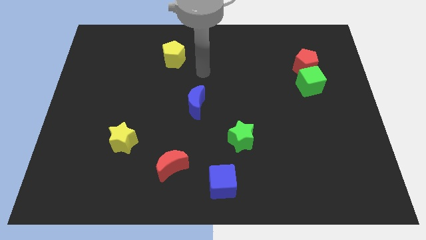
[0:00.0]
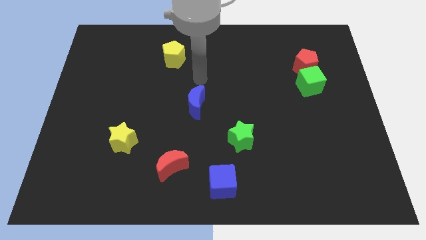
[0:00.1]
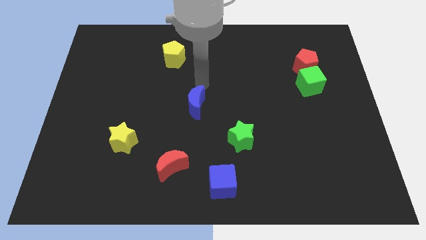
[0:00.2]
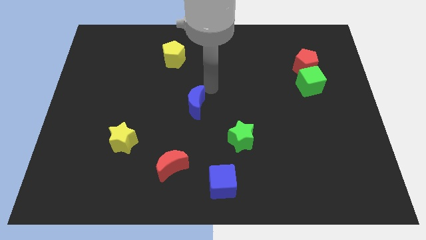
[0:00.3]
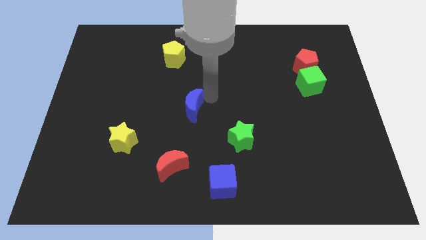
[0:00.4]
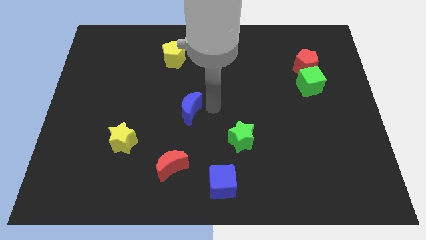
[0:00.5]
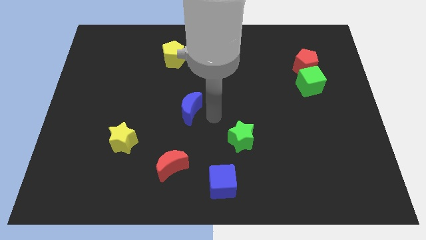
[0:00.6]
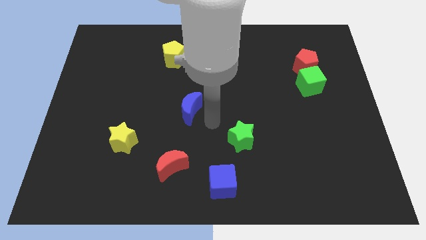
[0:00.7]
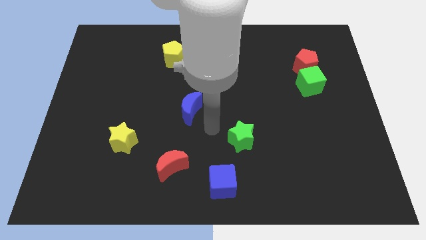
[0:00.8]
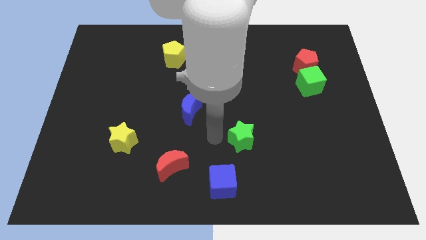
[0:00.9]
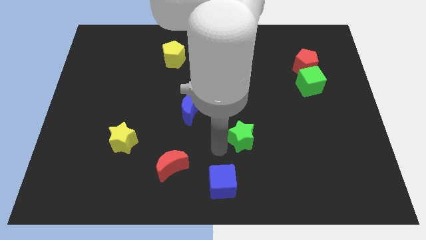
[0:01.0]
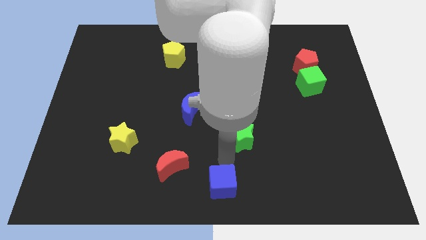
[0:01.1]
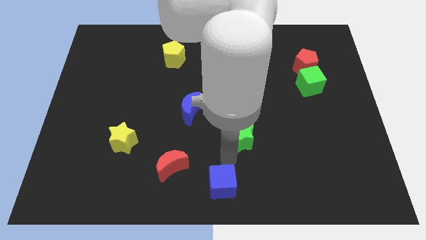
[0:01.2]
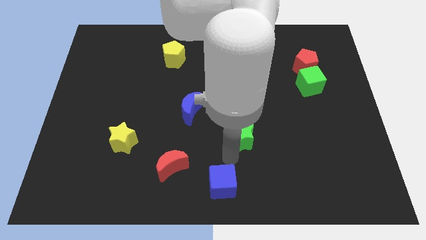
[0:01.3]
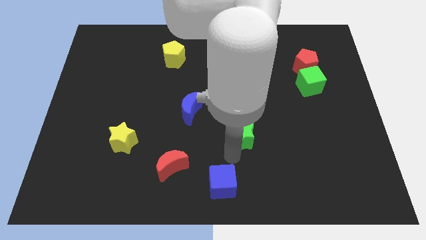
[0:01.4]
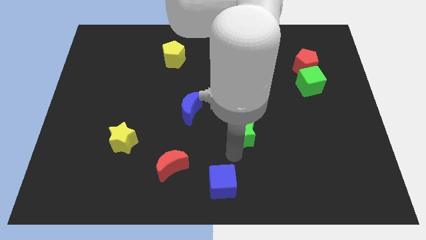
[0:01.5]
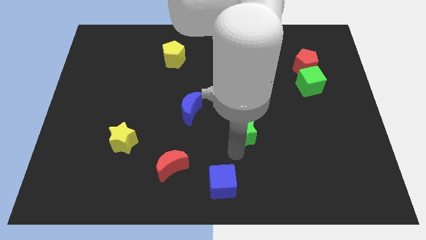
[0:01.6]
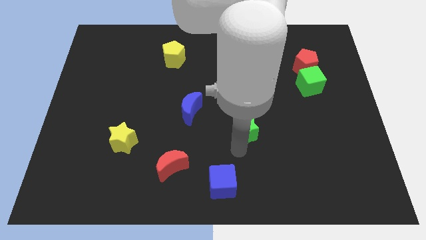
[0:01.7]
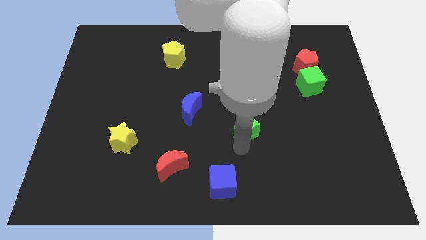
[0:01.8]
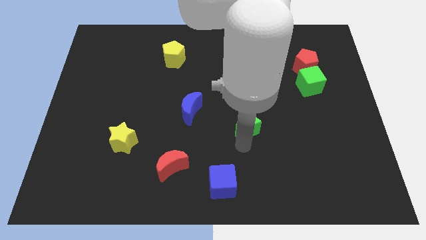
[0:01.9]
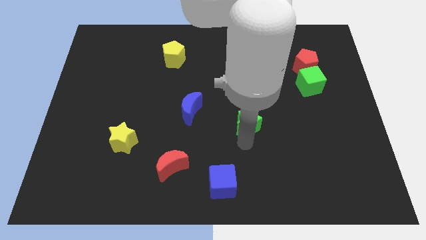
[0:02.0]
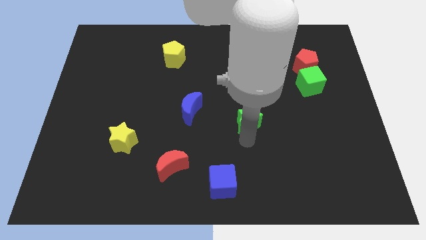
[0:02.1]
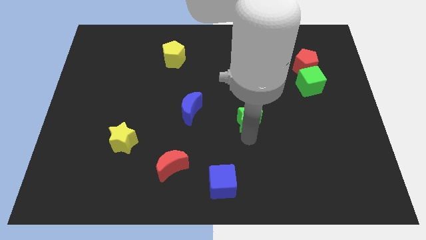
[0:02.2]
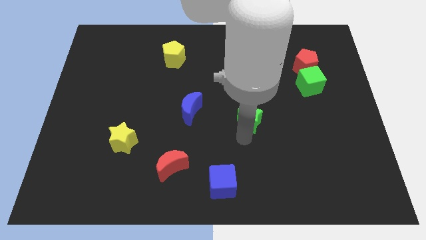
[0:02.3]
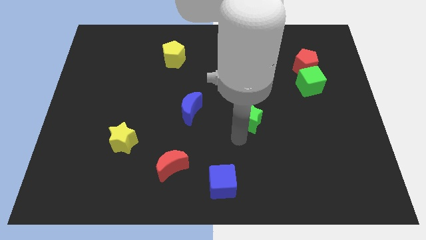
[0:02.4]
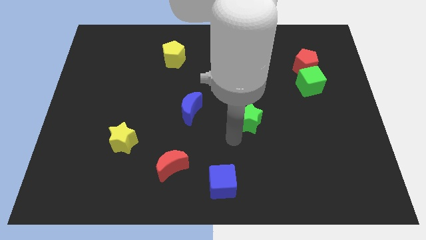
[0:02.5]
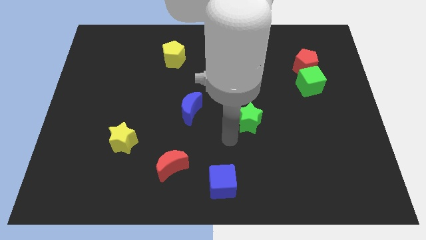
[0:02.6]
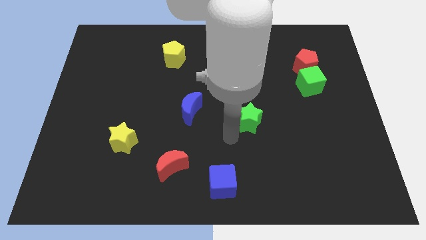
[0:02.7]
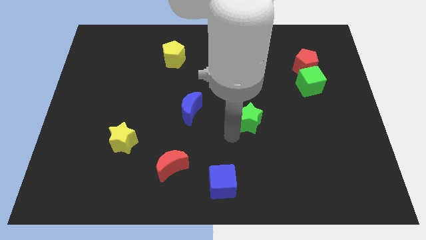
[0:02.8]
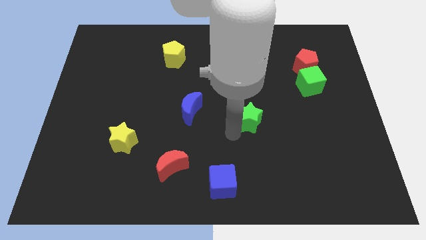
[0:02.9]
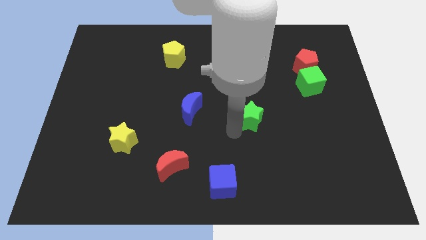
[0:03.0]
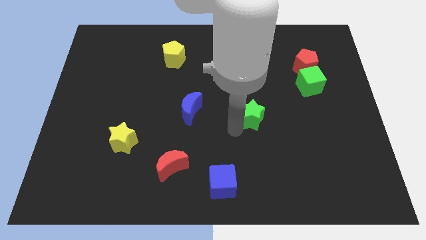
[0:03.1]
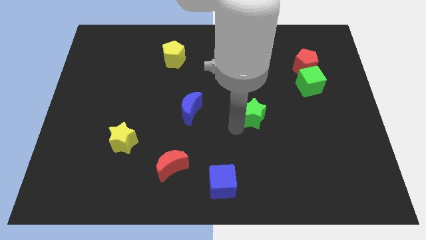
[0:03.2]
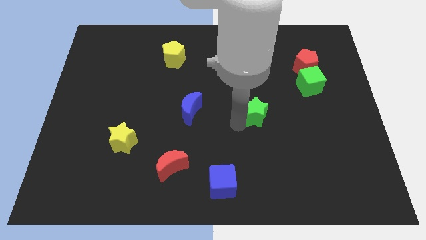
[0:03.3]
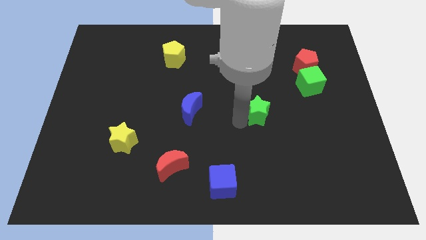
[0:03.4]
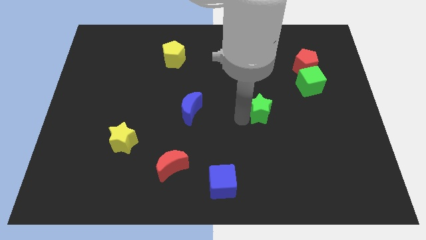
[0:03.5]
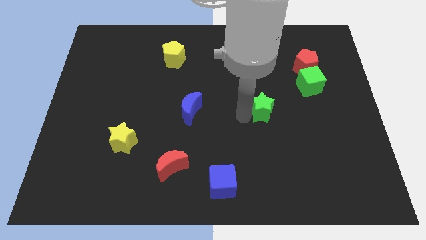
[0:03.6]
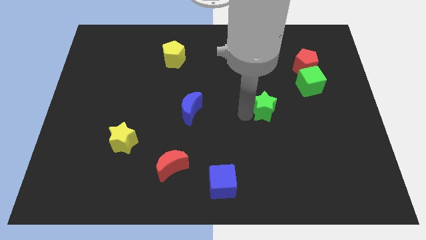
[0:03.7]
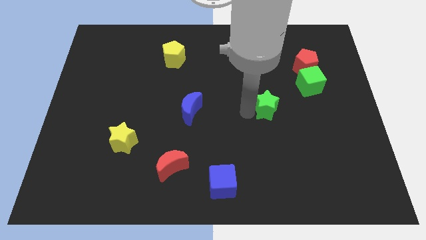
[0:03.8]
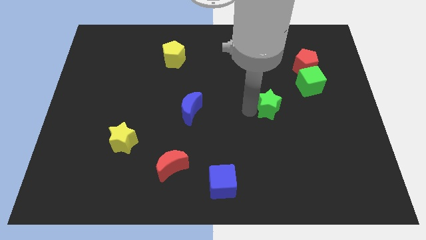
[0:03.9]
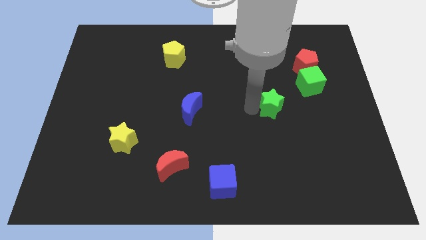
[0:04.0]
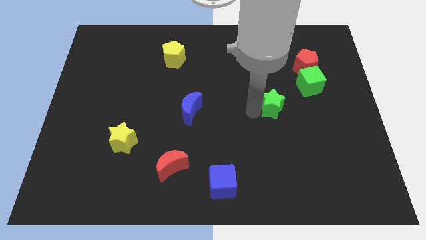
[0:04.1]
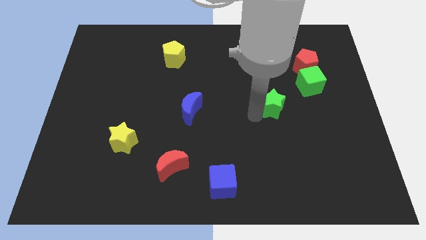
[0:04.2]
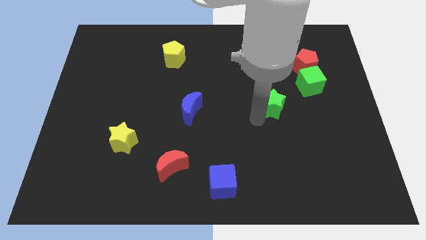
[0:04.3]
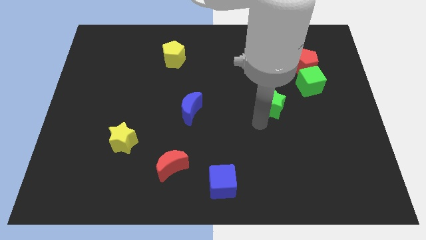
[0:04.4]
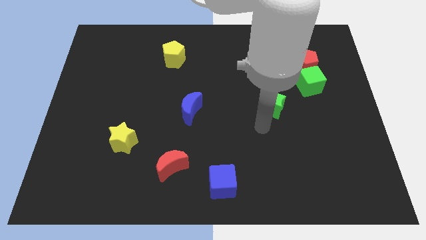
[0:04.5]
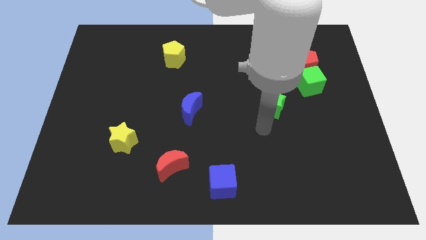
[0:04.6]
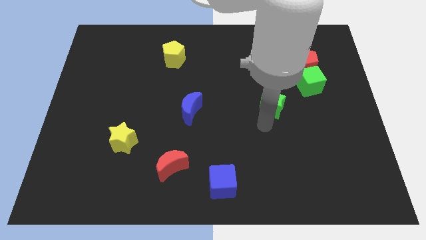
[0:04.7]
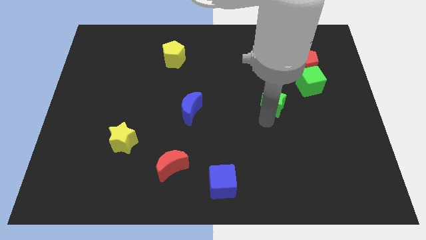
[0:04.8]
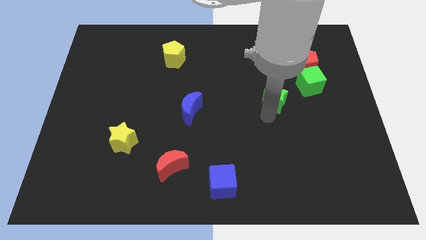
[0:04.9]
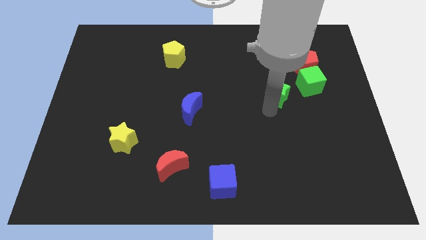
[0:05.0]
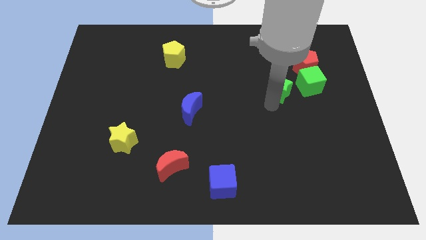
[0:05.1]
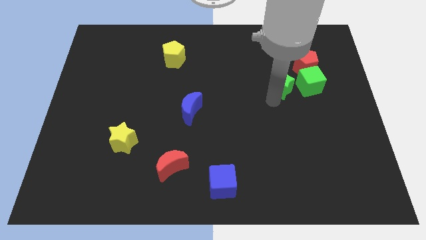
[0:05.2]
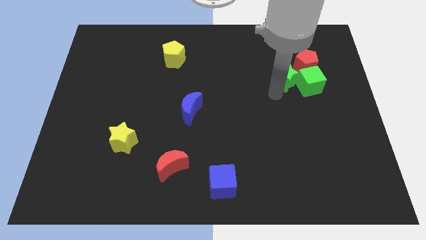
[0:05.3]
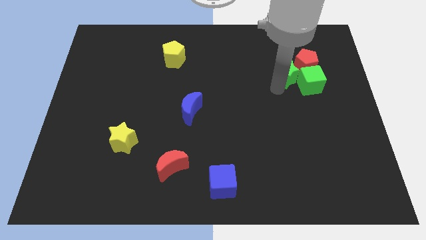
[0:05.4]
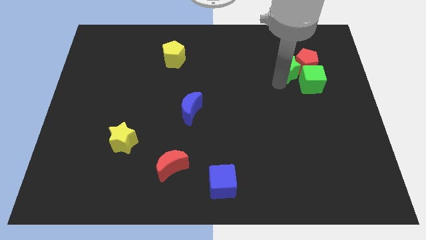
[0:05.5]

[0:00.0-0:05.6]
push the green star to the red pentagon

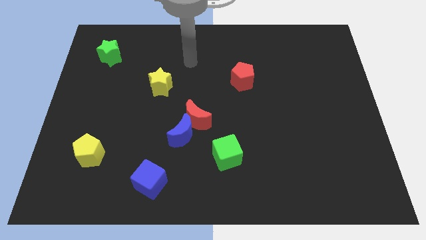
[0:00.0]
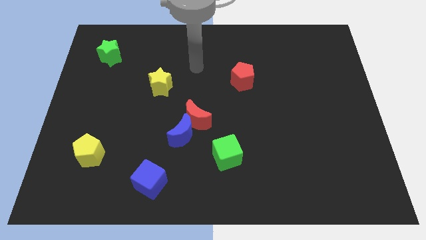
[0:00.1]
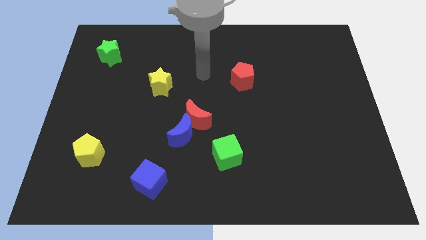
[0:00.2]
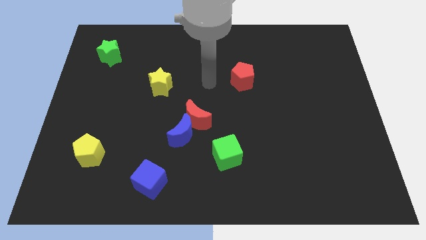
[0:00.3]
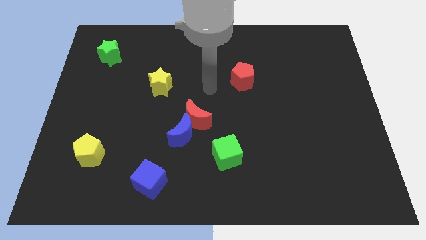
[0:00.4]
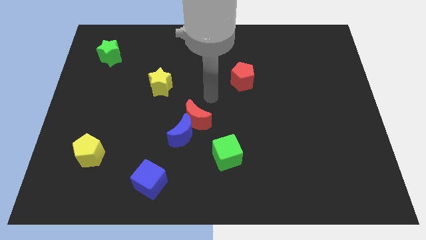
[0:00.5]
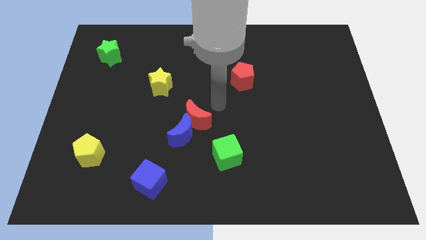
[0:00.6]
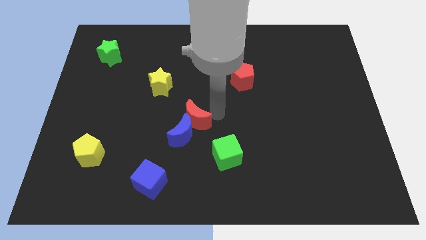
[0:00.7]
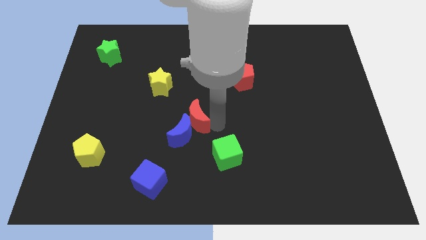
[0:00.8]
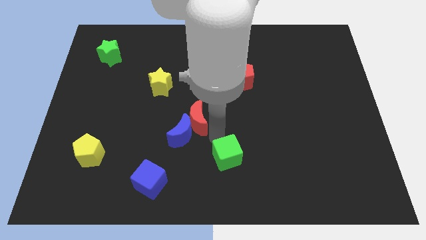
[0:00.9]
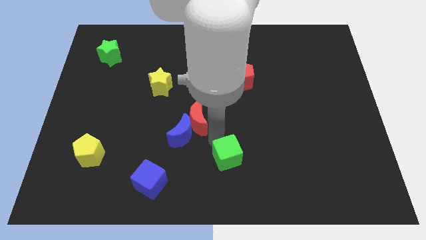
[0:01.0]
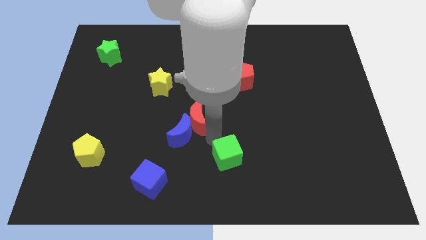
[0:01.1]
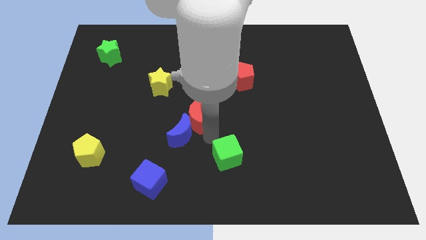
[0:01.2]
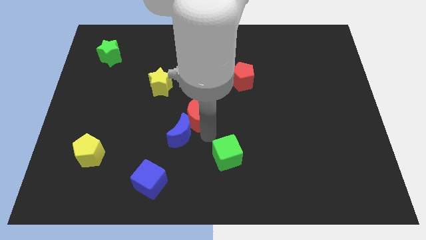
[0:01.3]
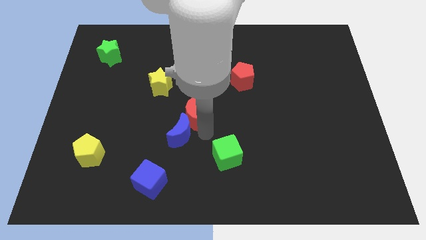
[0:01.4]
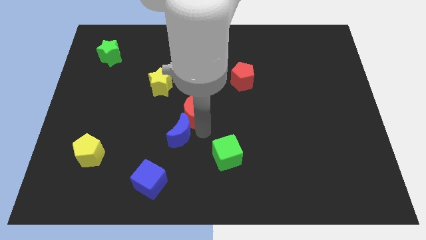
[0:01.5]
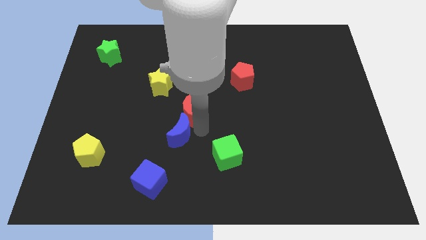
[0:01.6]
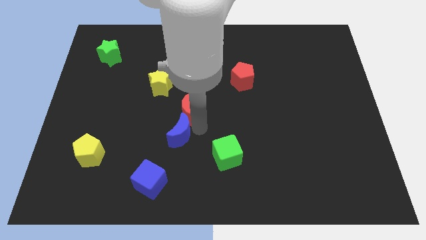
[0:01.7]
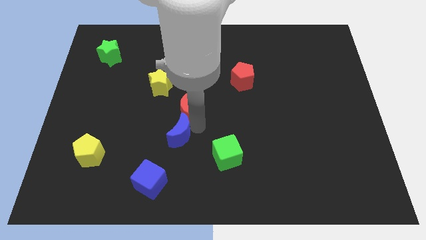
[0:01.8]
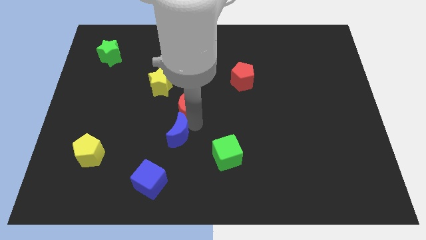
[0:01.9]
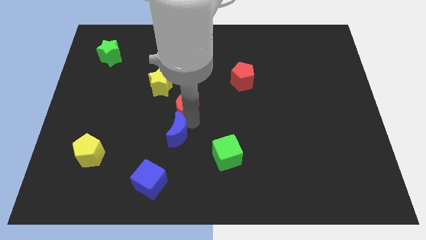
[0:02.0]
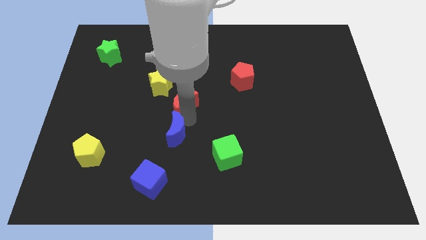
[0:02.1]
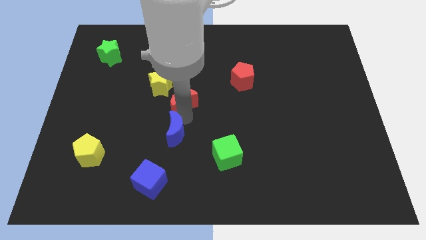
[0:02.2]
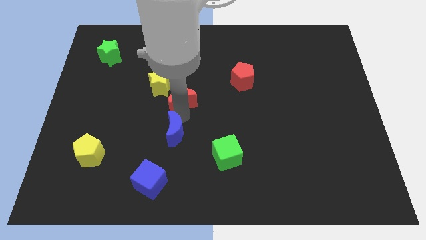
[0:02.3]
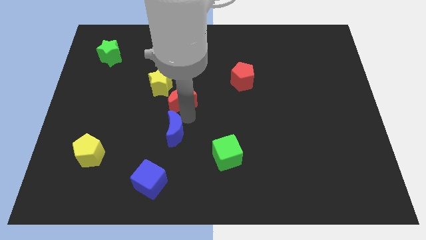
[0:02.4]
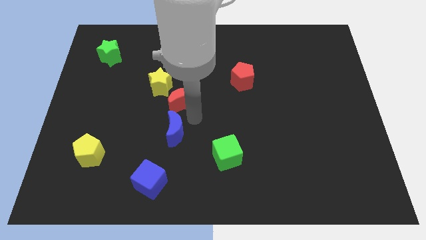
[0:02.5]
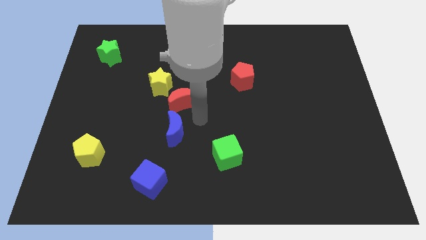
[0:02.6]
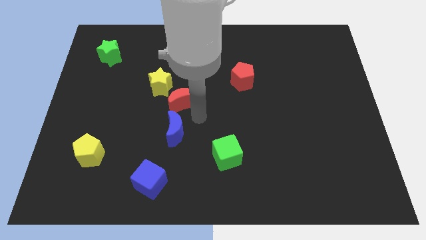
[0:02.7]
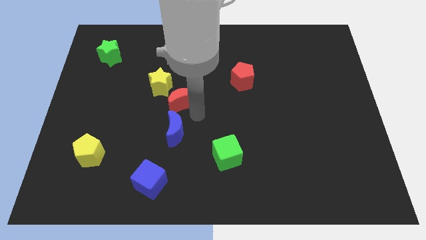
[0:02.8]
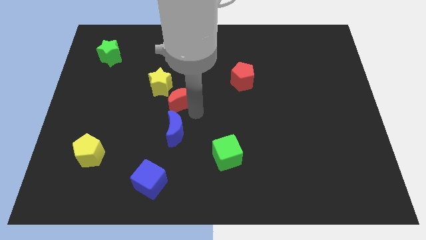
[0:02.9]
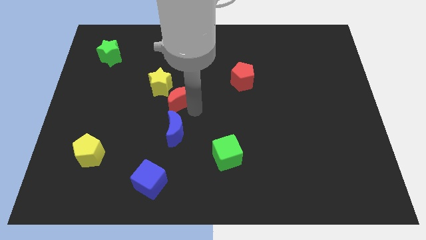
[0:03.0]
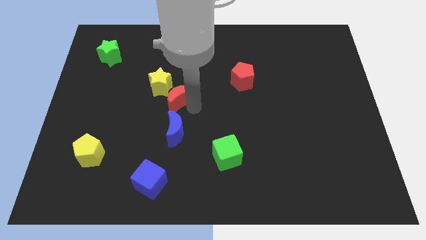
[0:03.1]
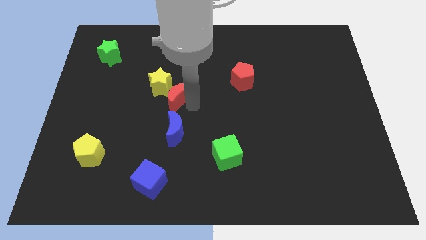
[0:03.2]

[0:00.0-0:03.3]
put the red moon to the yellow star
